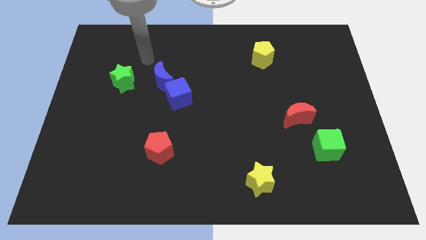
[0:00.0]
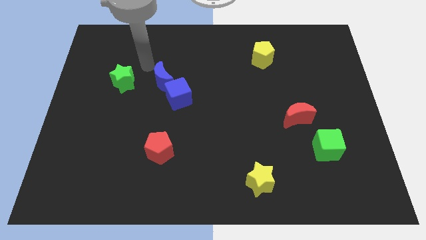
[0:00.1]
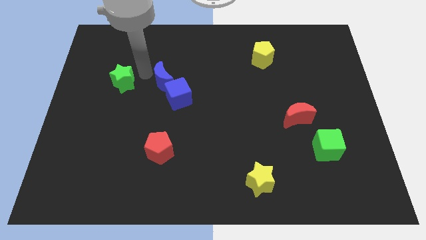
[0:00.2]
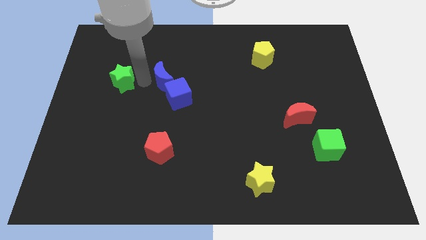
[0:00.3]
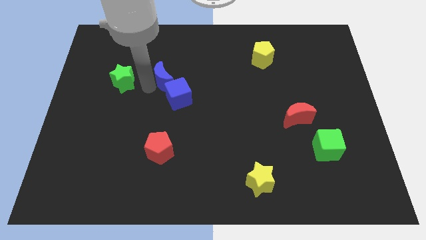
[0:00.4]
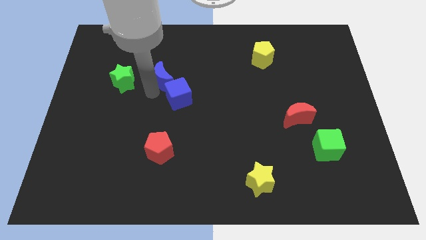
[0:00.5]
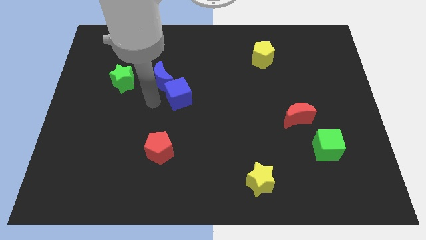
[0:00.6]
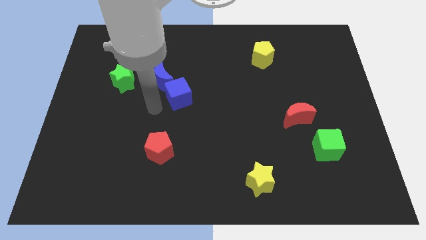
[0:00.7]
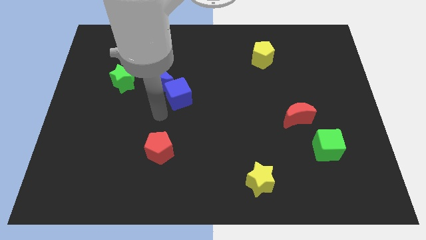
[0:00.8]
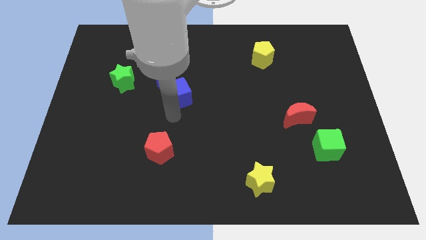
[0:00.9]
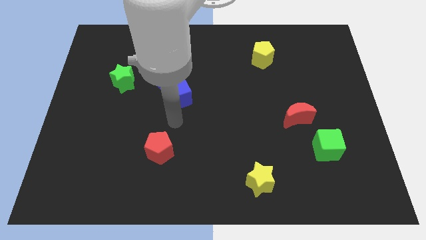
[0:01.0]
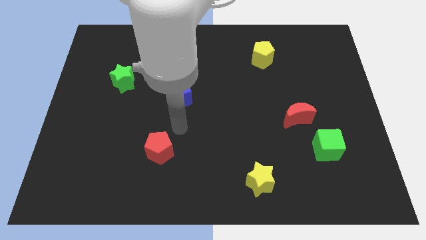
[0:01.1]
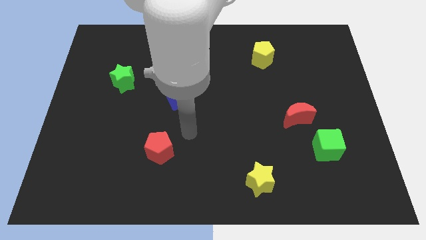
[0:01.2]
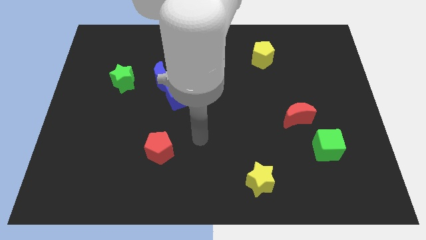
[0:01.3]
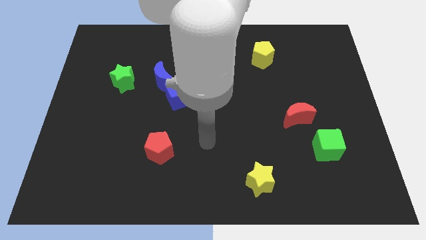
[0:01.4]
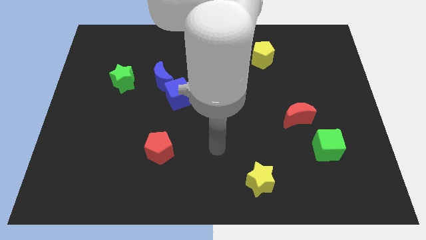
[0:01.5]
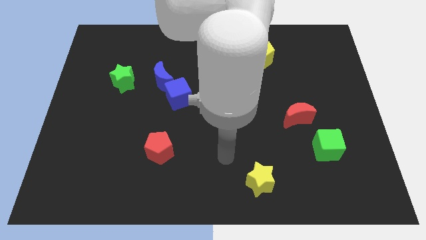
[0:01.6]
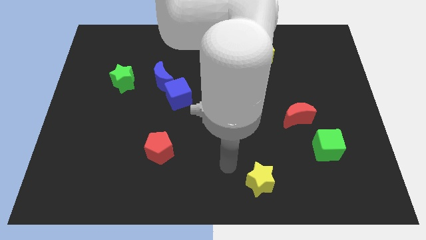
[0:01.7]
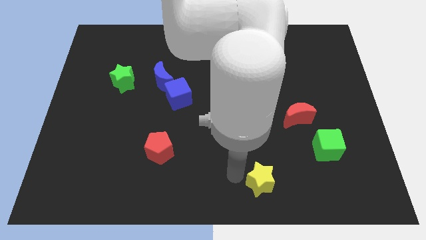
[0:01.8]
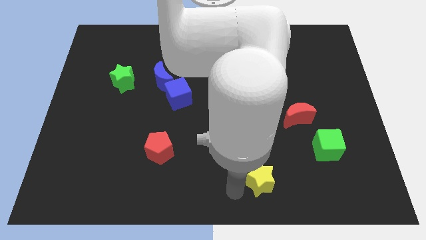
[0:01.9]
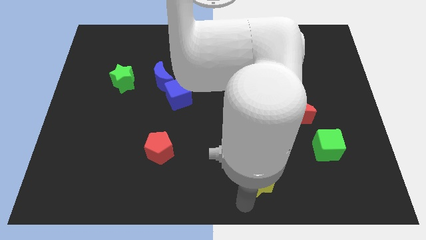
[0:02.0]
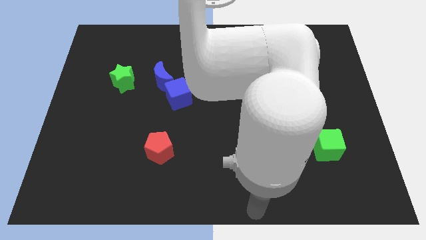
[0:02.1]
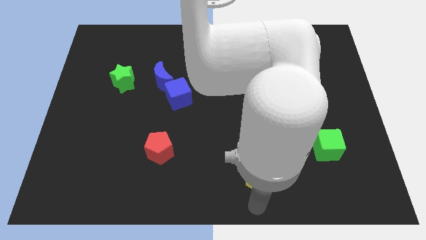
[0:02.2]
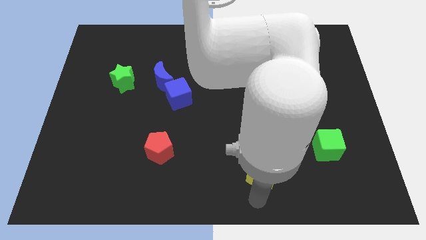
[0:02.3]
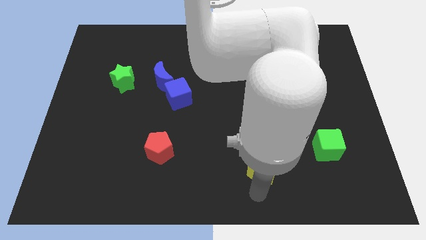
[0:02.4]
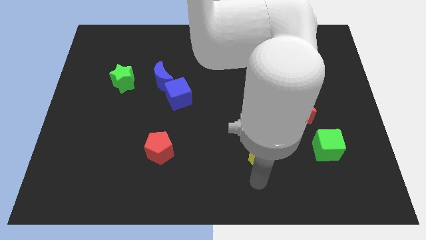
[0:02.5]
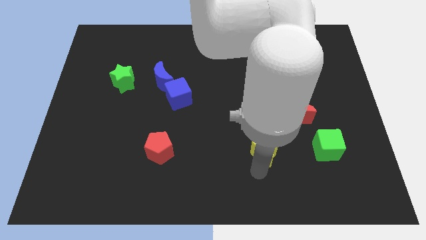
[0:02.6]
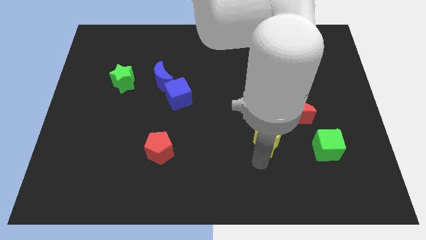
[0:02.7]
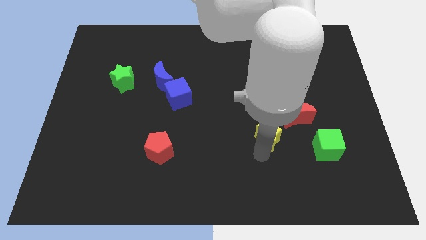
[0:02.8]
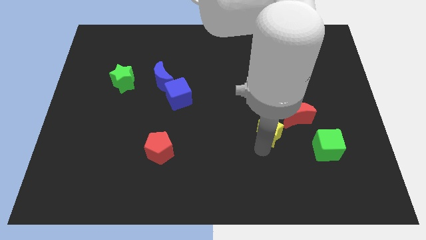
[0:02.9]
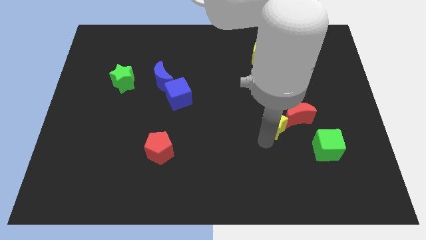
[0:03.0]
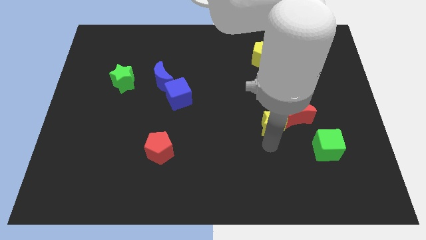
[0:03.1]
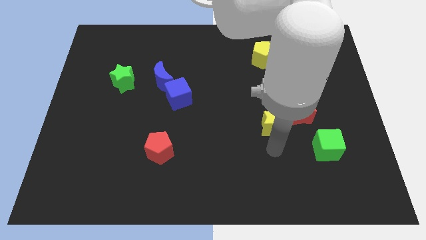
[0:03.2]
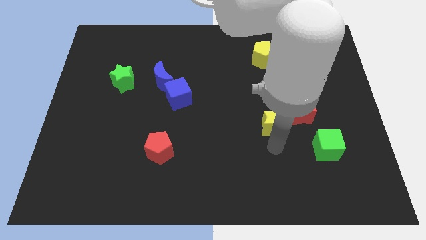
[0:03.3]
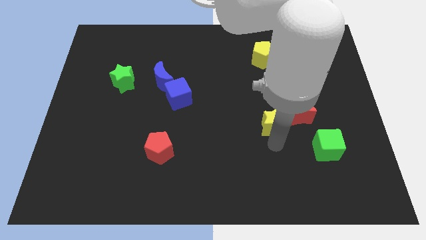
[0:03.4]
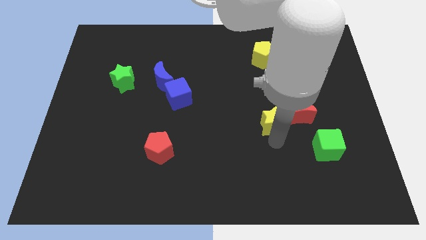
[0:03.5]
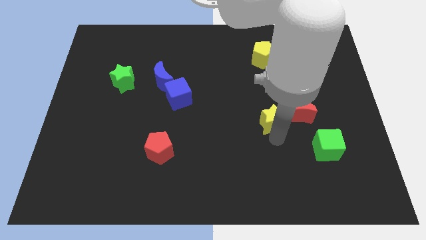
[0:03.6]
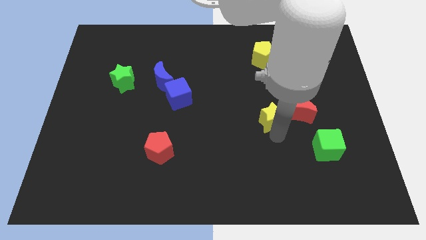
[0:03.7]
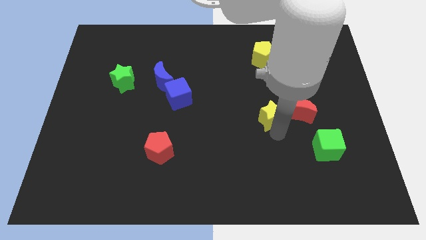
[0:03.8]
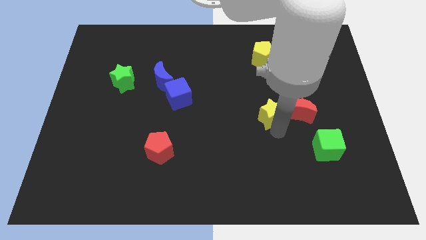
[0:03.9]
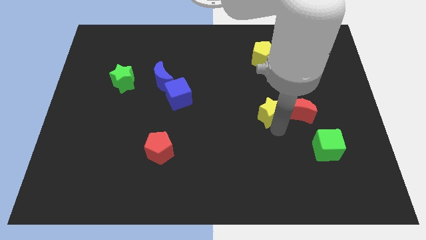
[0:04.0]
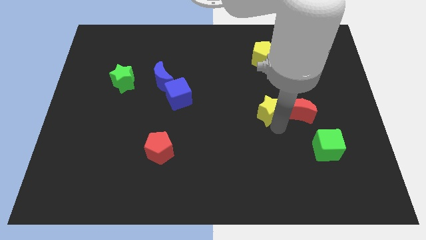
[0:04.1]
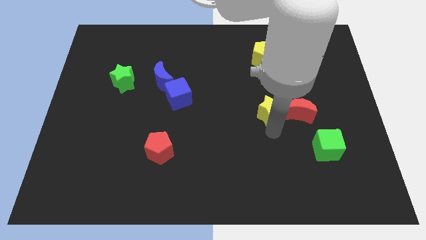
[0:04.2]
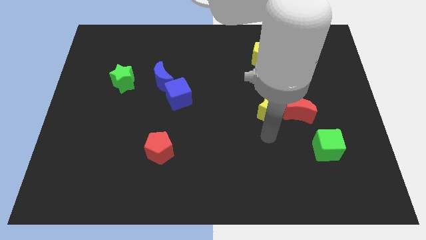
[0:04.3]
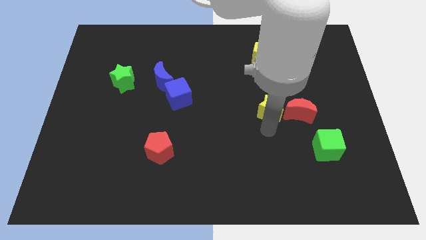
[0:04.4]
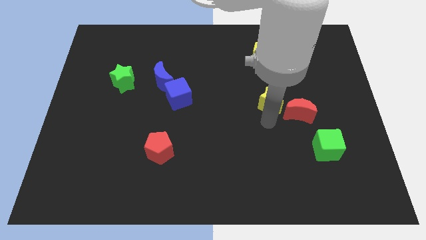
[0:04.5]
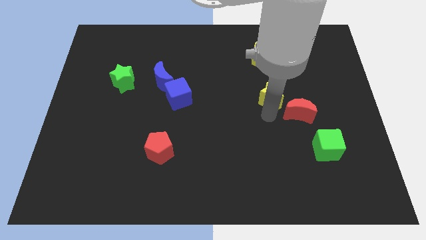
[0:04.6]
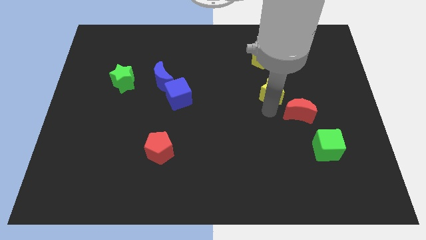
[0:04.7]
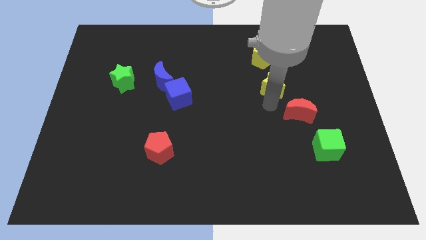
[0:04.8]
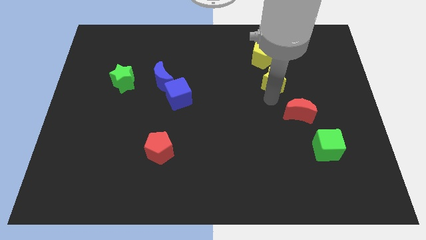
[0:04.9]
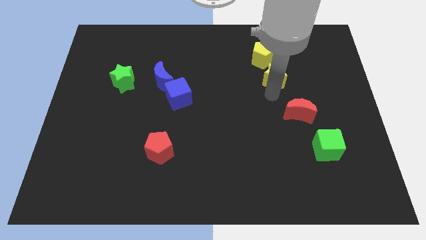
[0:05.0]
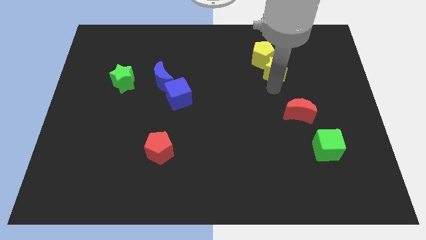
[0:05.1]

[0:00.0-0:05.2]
put the yellow star close to the yellow pentagon

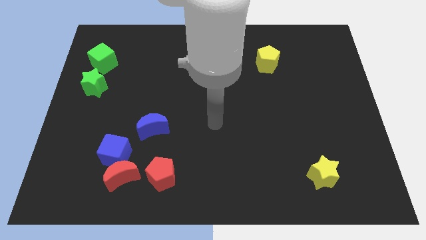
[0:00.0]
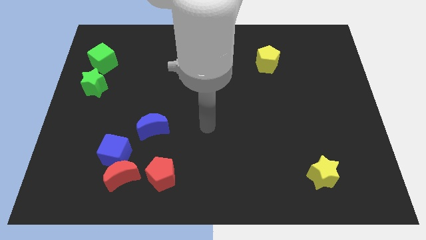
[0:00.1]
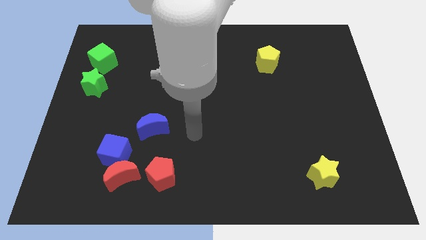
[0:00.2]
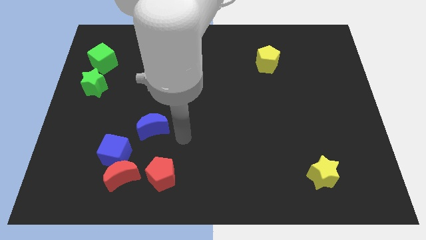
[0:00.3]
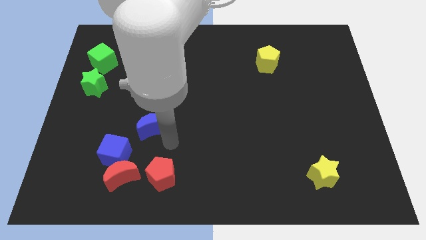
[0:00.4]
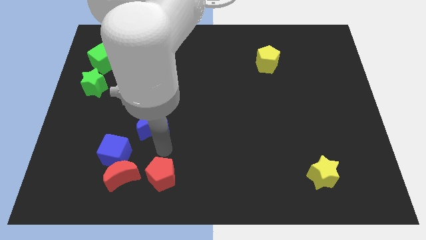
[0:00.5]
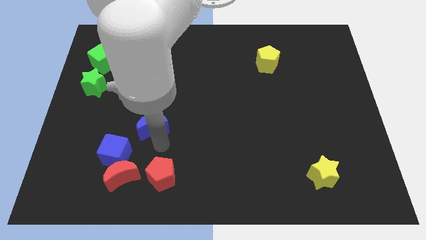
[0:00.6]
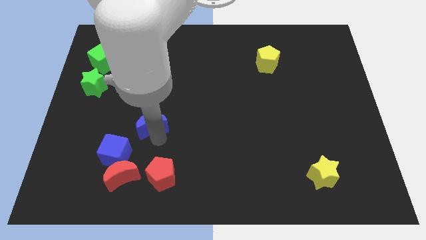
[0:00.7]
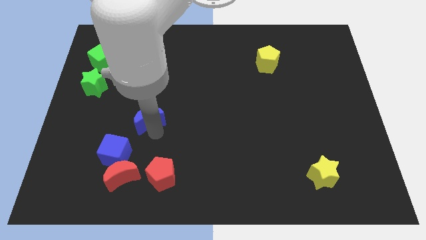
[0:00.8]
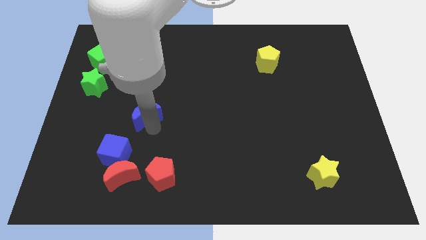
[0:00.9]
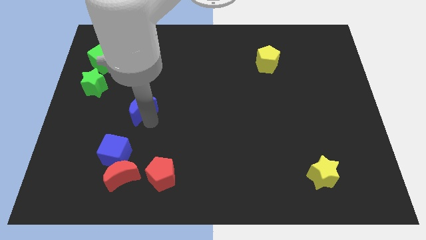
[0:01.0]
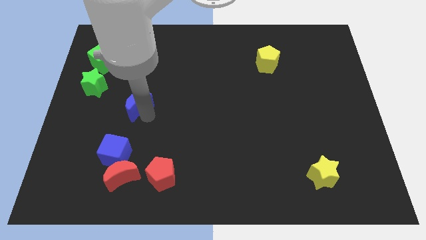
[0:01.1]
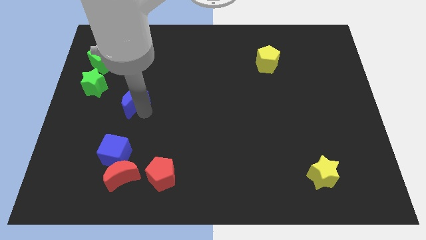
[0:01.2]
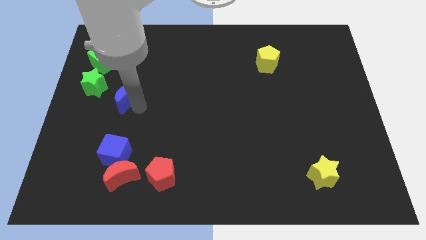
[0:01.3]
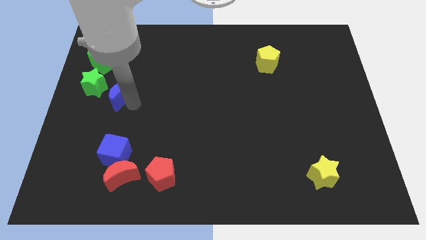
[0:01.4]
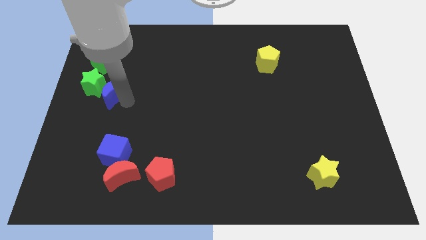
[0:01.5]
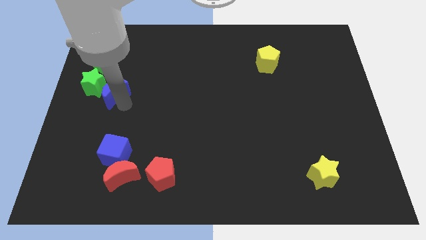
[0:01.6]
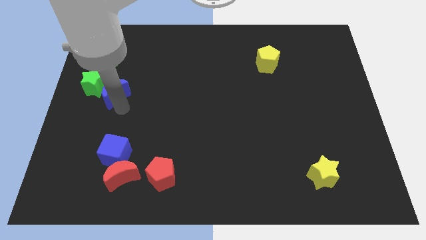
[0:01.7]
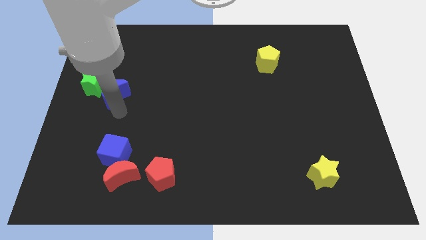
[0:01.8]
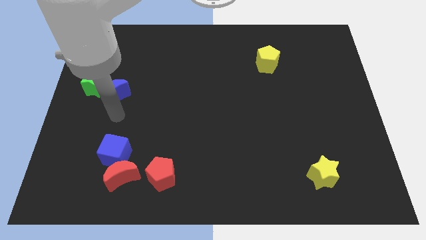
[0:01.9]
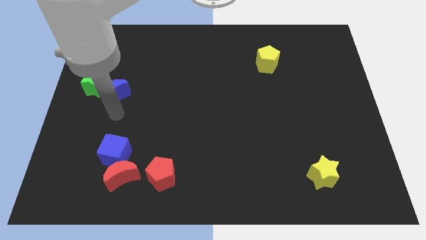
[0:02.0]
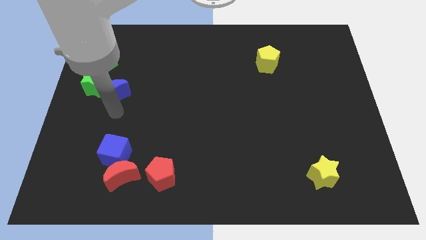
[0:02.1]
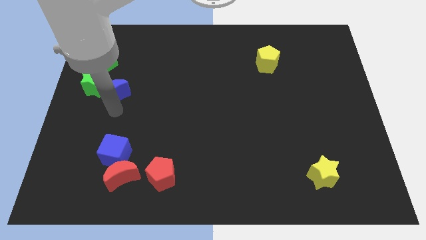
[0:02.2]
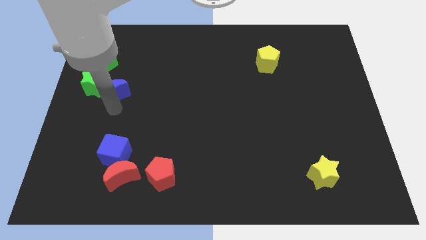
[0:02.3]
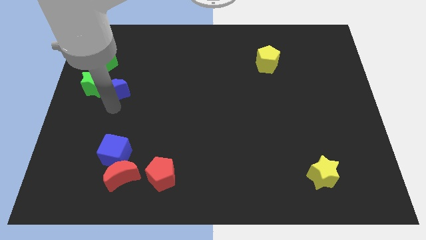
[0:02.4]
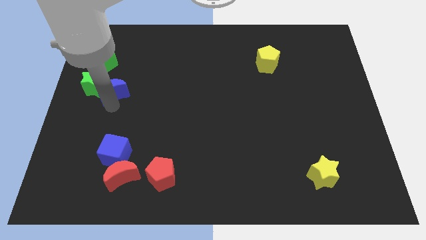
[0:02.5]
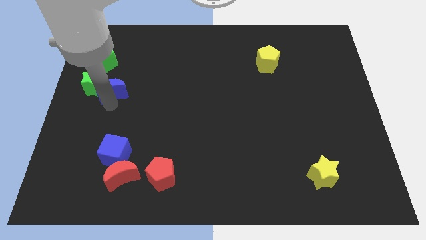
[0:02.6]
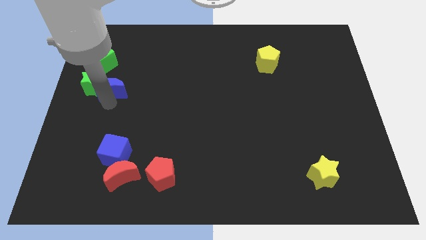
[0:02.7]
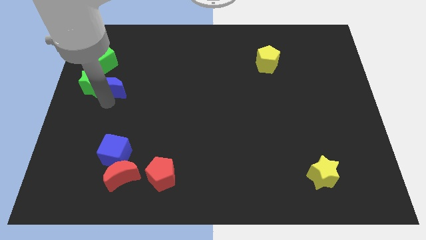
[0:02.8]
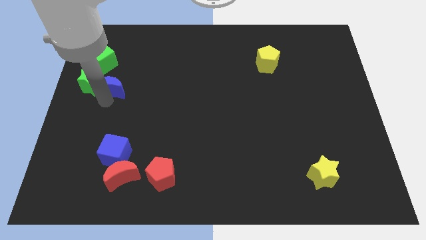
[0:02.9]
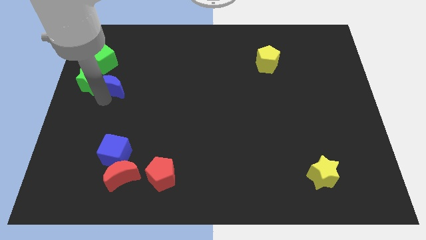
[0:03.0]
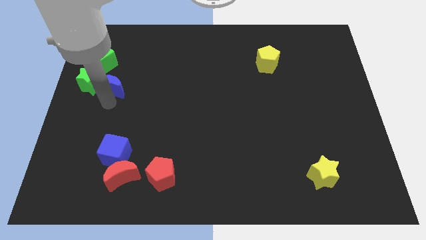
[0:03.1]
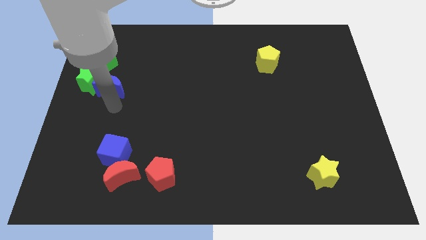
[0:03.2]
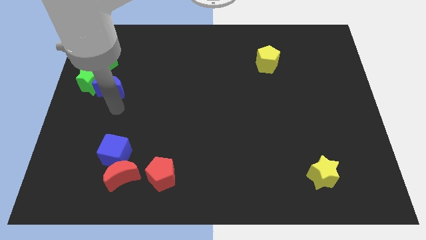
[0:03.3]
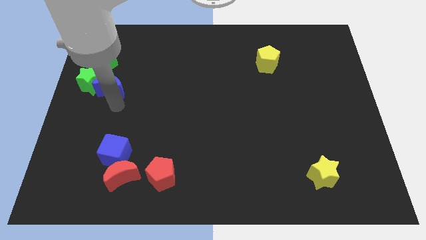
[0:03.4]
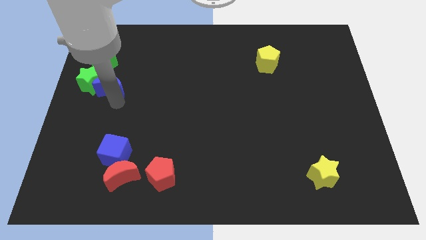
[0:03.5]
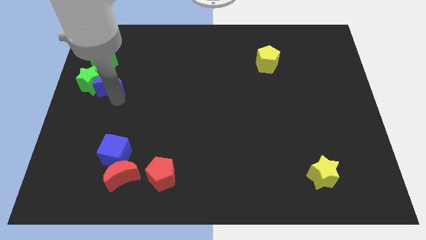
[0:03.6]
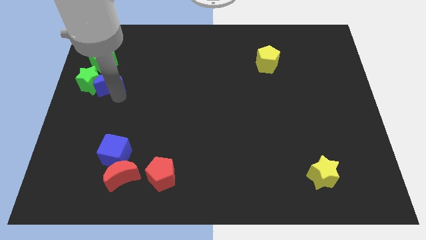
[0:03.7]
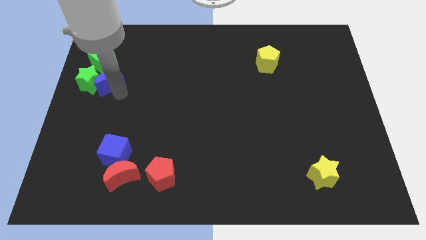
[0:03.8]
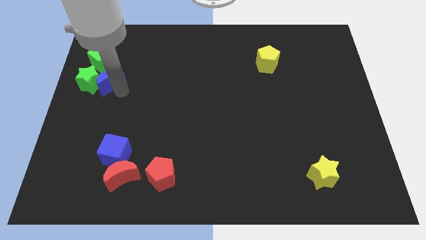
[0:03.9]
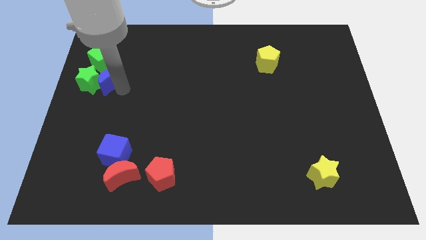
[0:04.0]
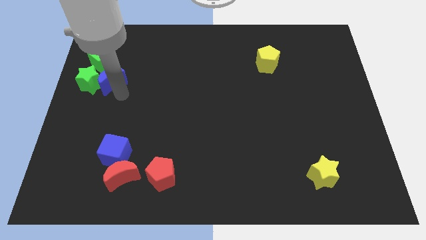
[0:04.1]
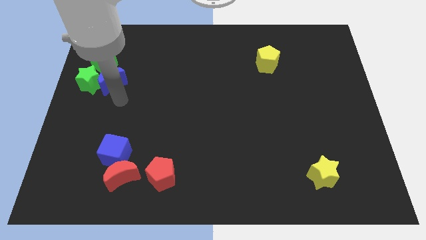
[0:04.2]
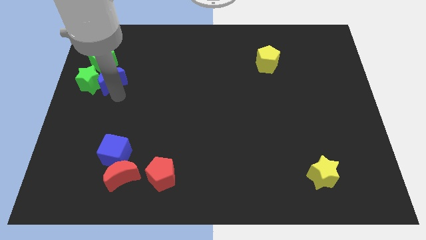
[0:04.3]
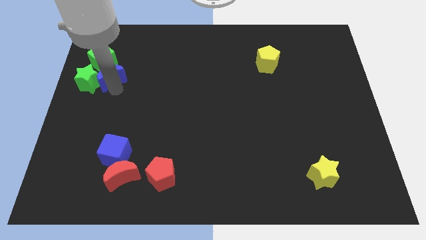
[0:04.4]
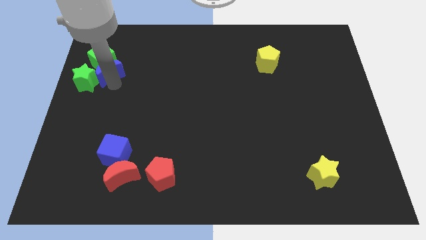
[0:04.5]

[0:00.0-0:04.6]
push the blue moon to the green cube
